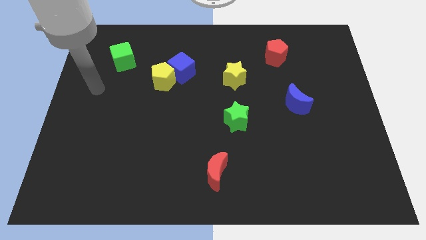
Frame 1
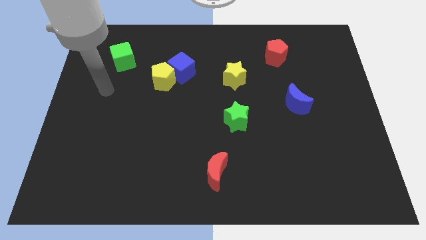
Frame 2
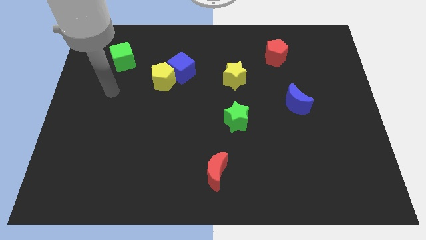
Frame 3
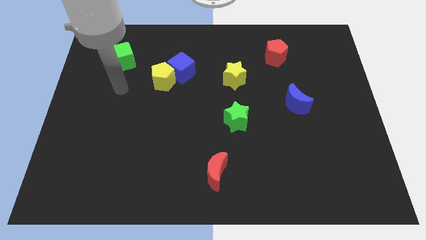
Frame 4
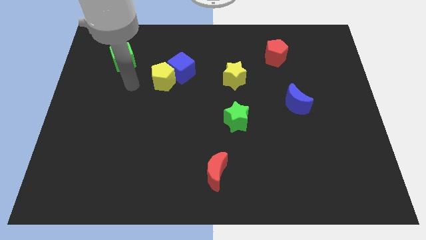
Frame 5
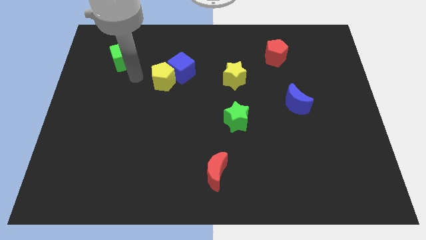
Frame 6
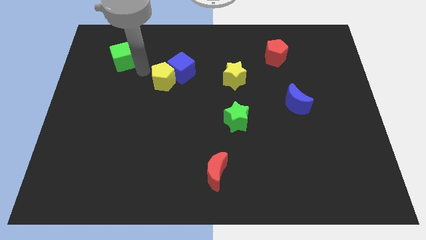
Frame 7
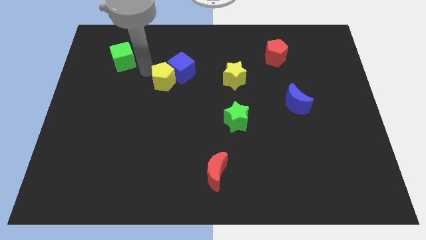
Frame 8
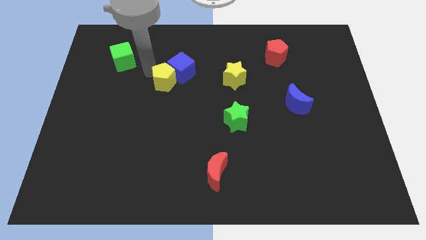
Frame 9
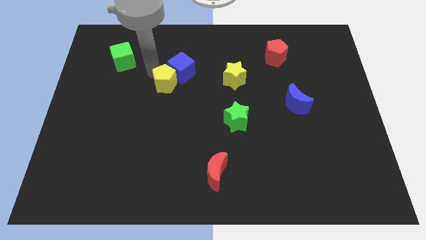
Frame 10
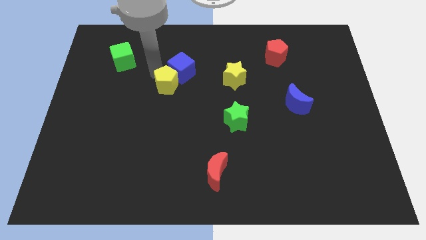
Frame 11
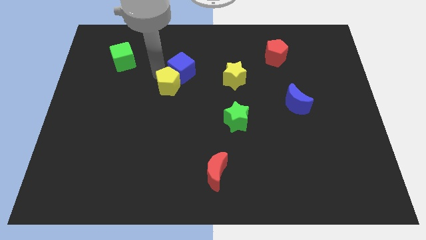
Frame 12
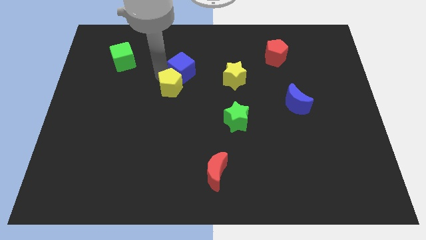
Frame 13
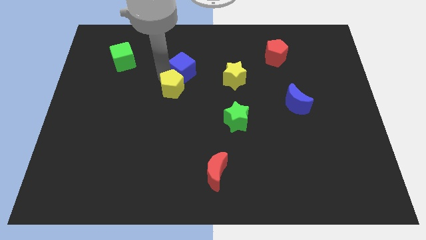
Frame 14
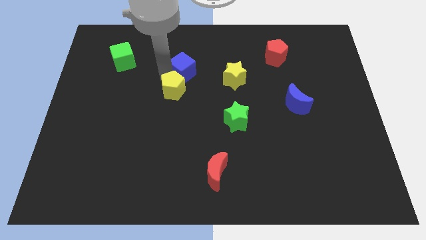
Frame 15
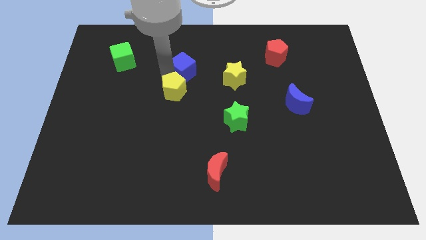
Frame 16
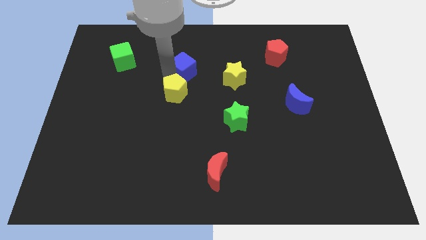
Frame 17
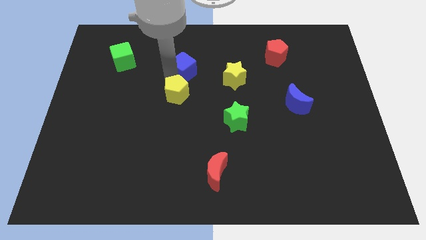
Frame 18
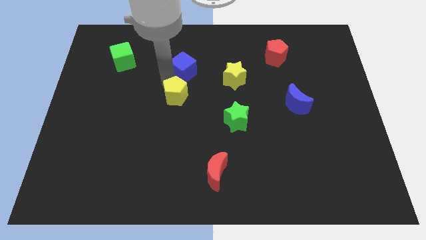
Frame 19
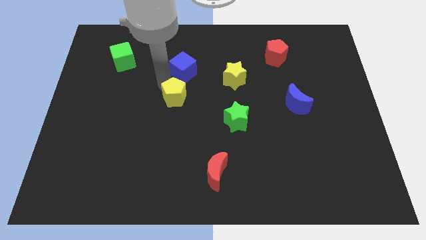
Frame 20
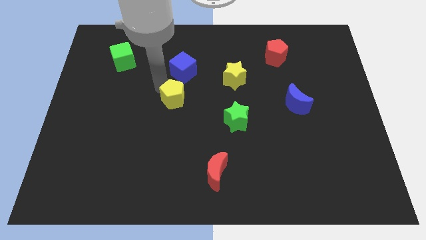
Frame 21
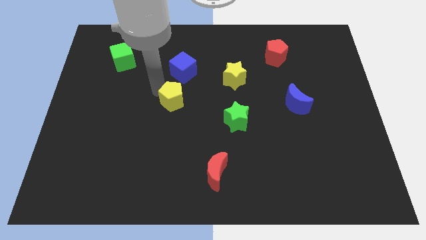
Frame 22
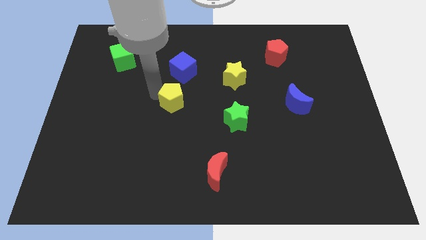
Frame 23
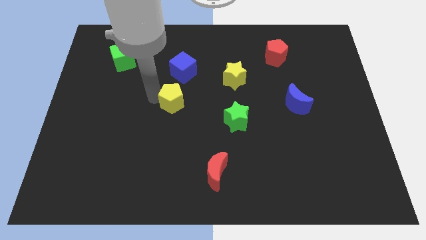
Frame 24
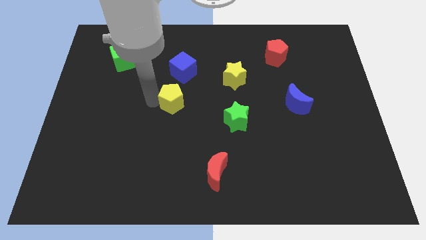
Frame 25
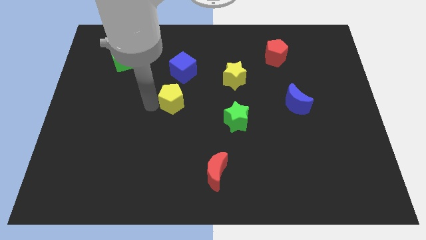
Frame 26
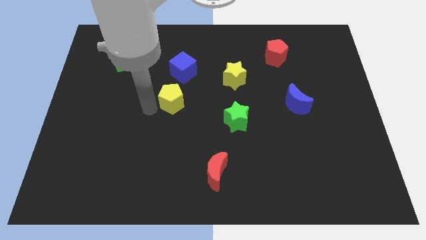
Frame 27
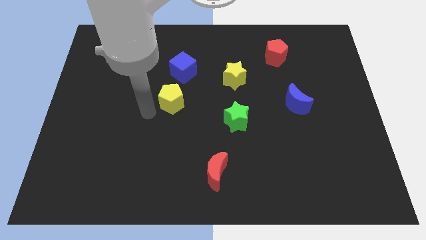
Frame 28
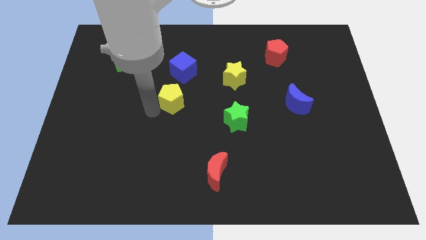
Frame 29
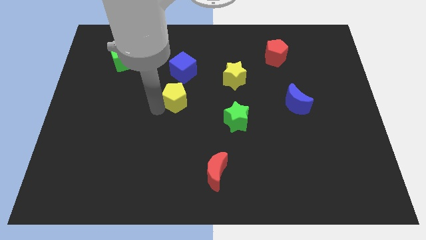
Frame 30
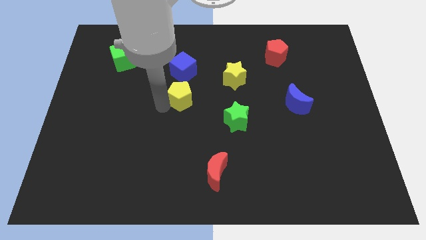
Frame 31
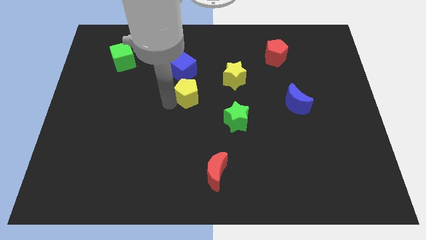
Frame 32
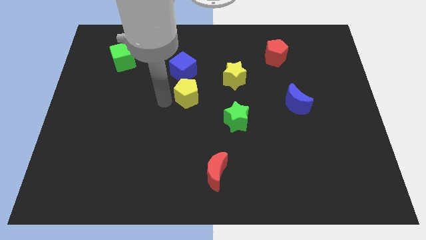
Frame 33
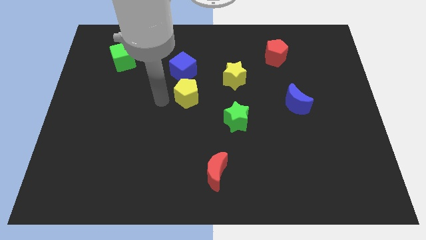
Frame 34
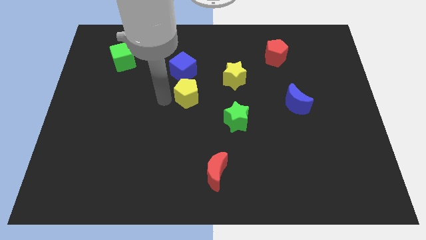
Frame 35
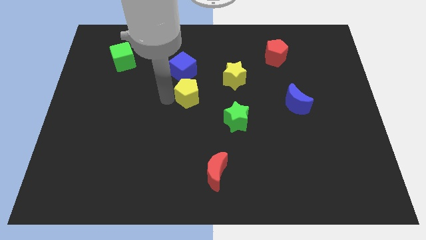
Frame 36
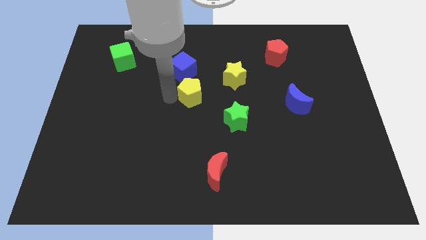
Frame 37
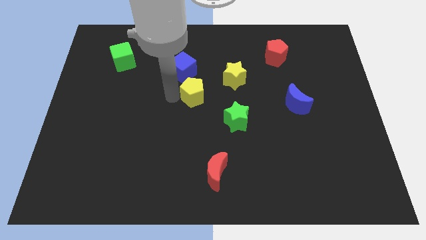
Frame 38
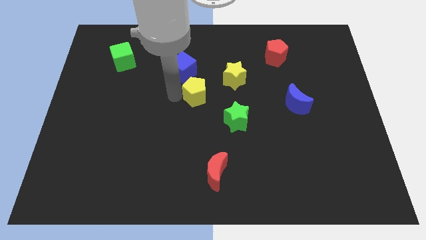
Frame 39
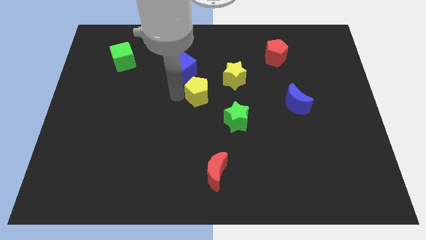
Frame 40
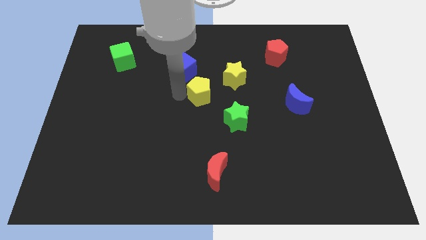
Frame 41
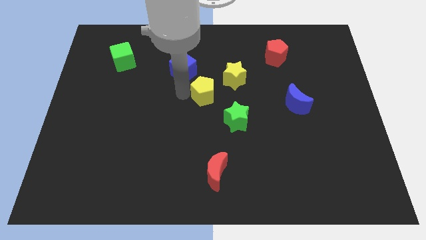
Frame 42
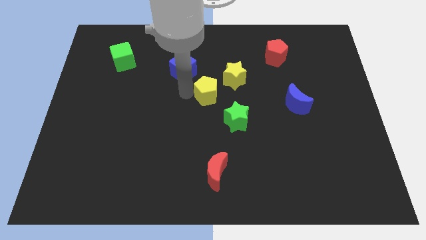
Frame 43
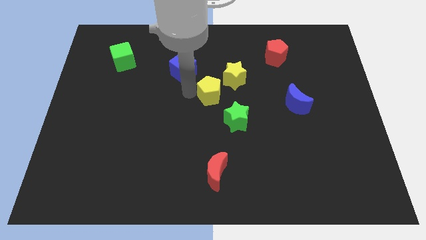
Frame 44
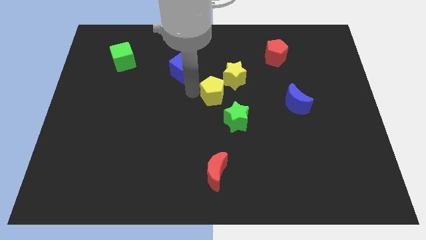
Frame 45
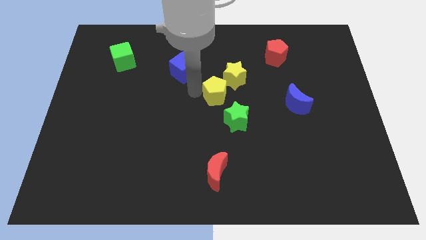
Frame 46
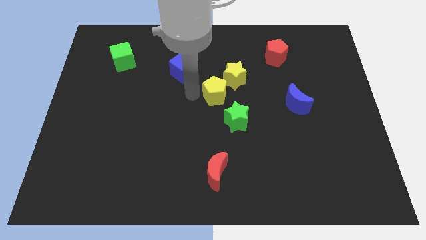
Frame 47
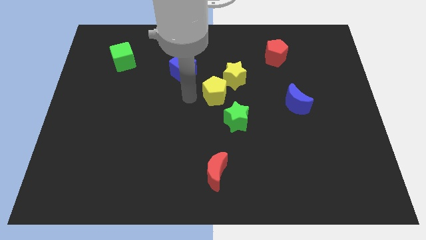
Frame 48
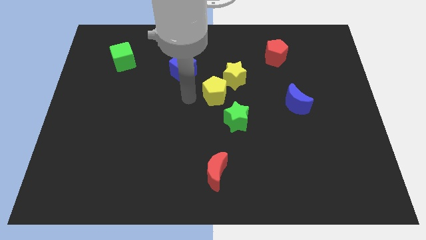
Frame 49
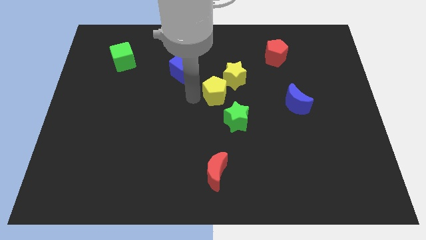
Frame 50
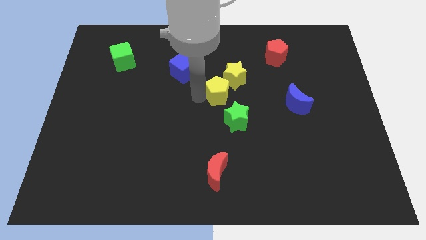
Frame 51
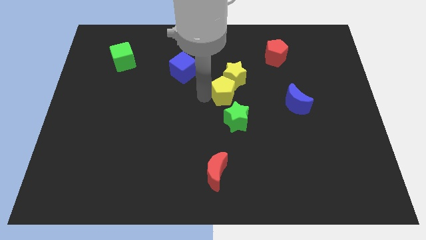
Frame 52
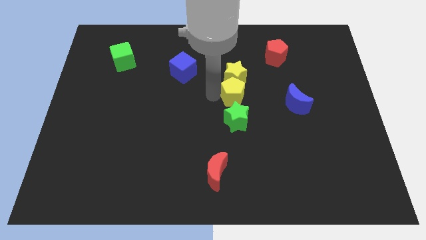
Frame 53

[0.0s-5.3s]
put the yellow pentagon diagonally down and to the right of the yellow star

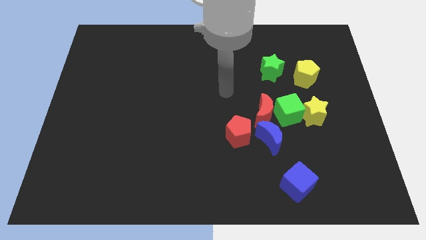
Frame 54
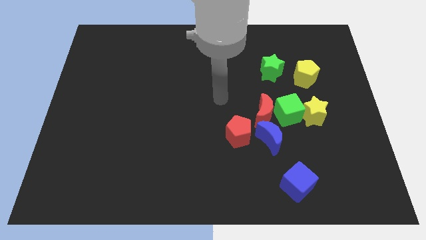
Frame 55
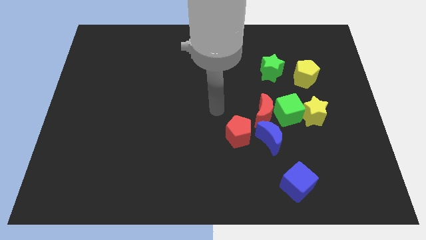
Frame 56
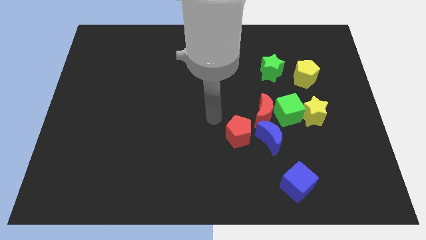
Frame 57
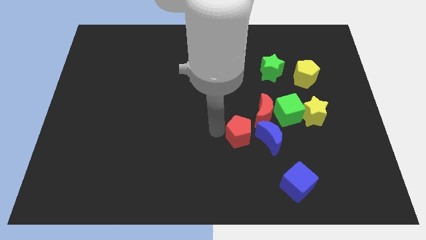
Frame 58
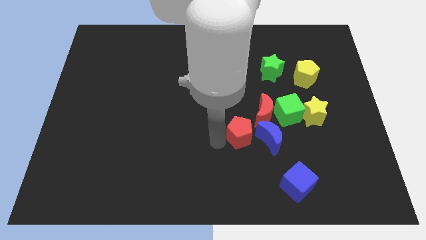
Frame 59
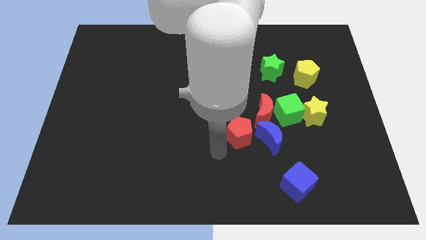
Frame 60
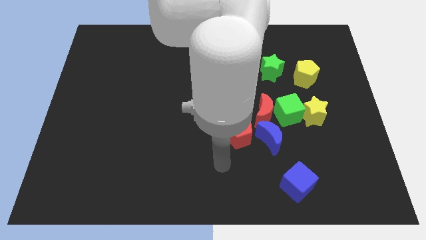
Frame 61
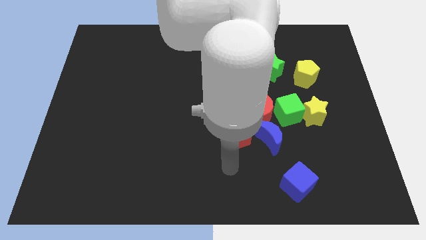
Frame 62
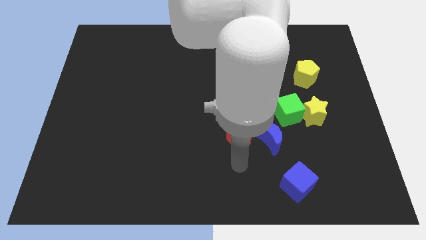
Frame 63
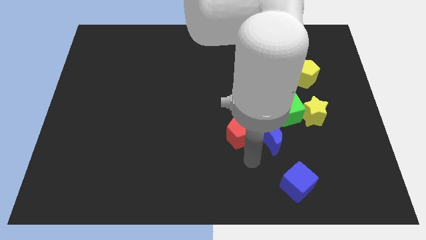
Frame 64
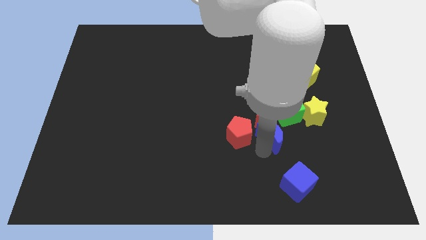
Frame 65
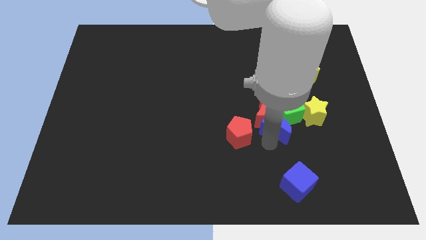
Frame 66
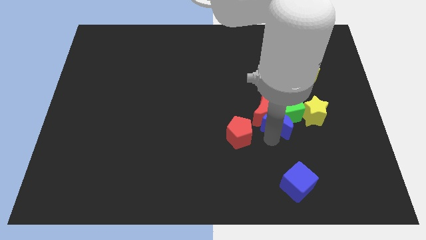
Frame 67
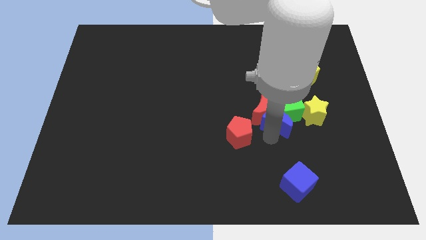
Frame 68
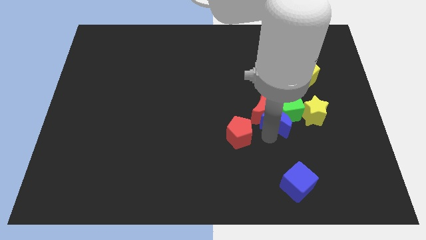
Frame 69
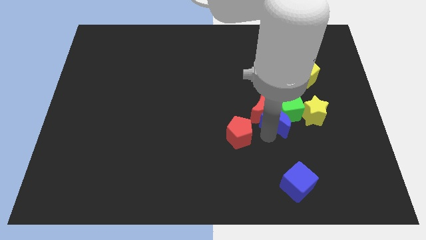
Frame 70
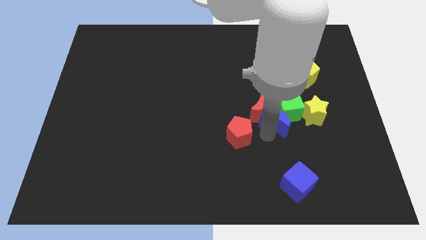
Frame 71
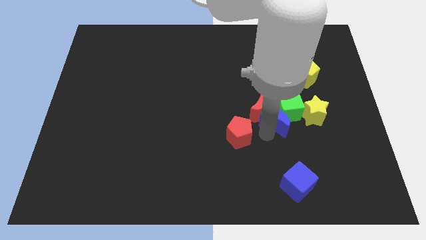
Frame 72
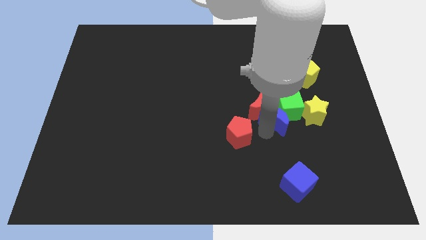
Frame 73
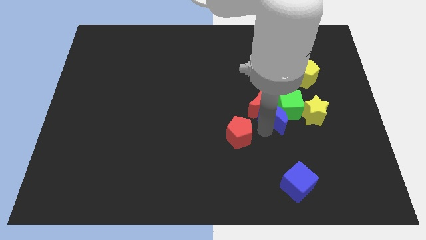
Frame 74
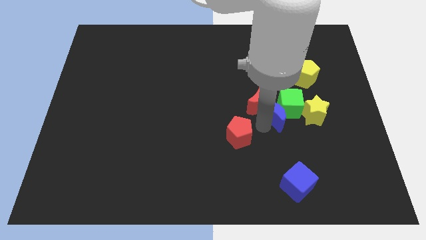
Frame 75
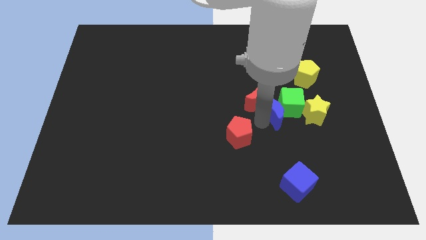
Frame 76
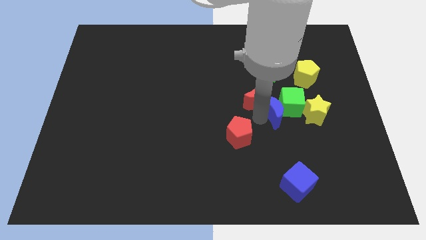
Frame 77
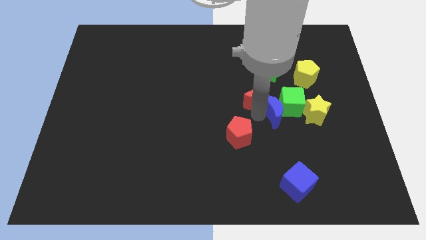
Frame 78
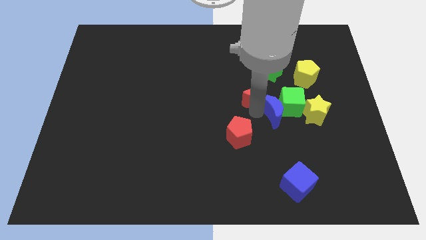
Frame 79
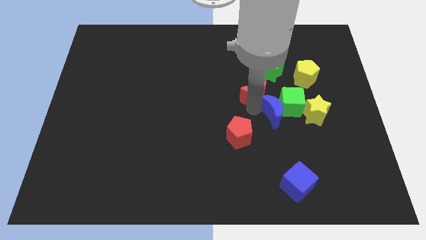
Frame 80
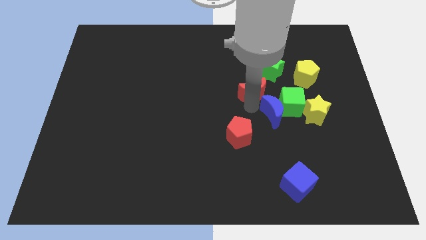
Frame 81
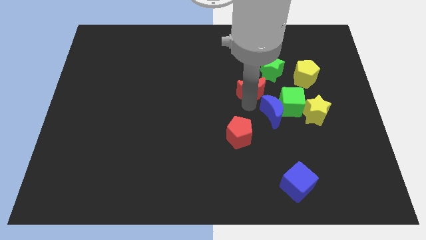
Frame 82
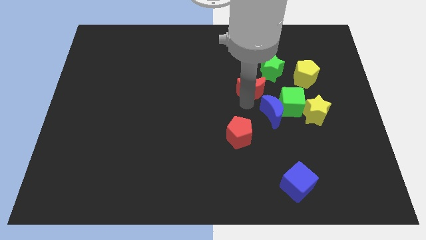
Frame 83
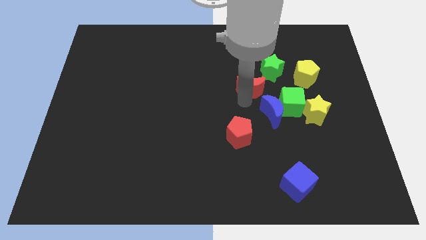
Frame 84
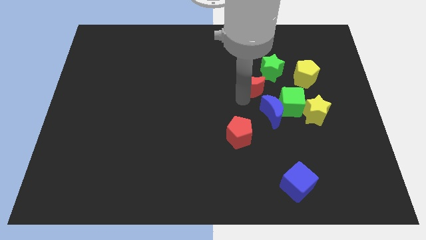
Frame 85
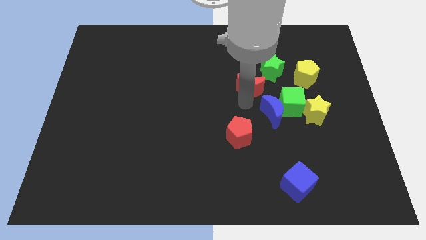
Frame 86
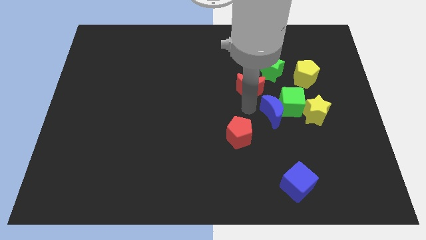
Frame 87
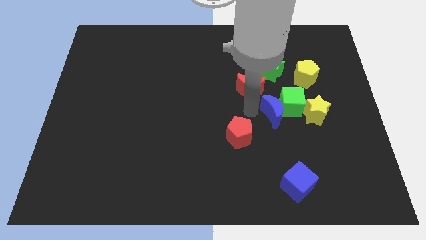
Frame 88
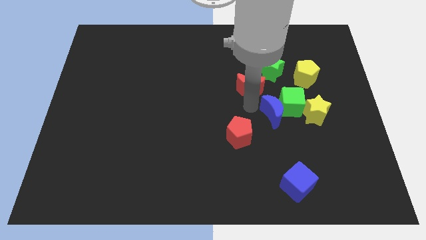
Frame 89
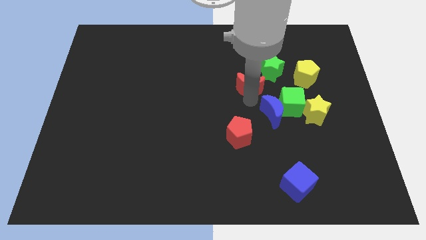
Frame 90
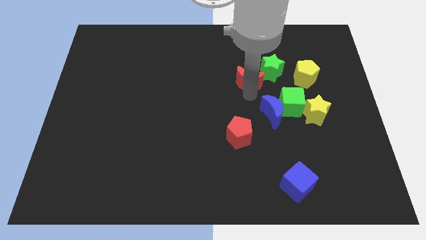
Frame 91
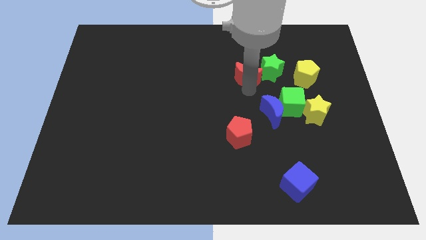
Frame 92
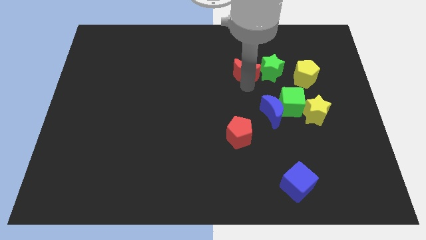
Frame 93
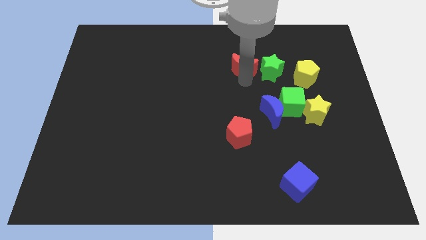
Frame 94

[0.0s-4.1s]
put the red moon diagonally up and to the left of the green star
